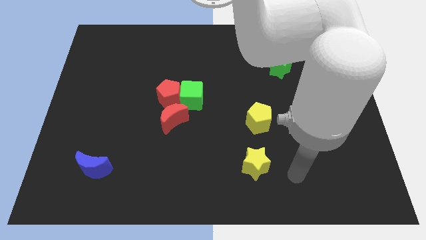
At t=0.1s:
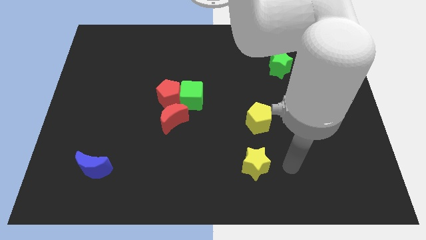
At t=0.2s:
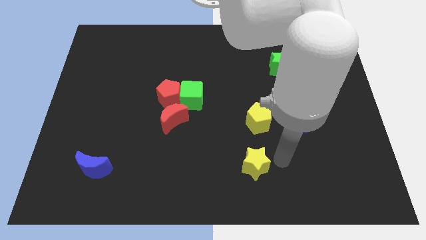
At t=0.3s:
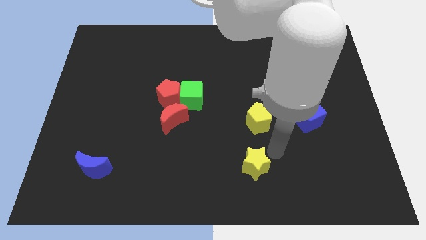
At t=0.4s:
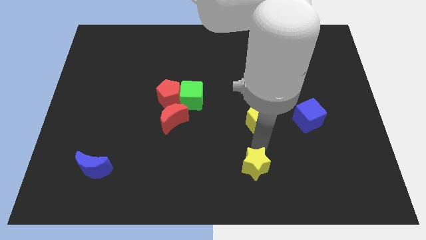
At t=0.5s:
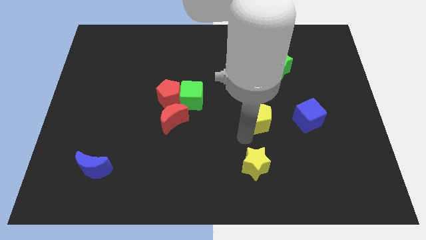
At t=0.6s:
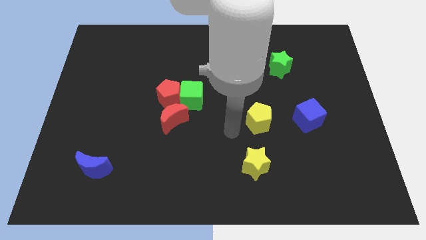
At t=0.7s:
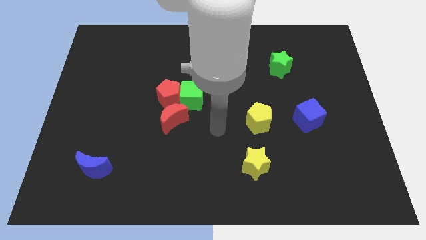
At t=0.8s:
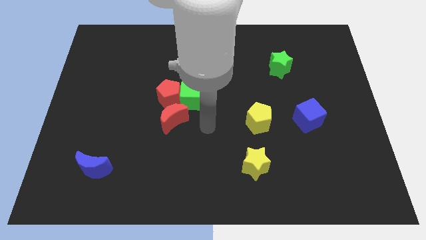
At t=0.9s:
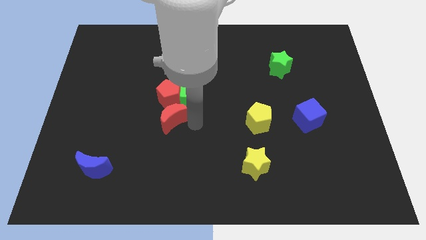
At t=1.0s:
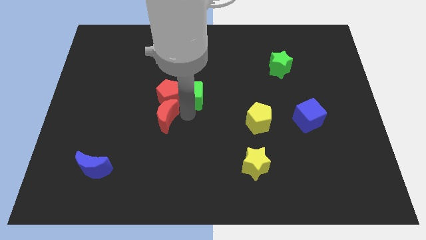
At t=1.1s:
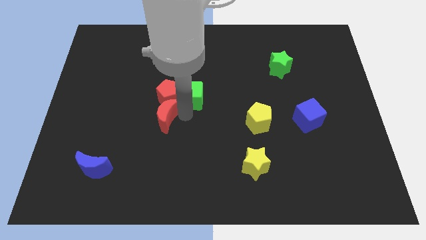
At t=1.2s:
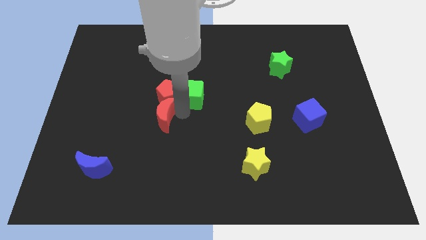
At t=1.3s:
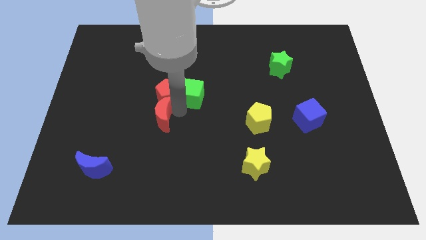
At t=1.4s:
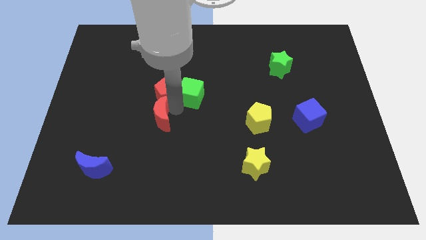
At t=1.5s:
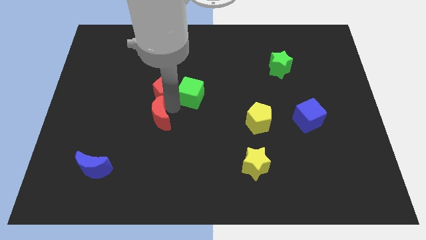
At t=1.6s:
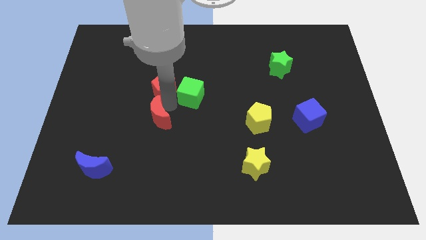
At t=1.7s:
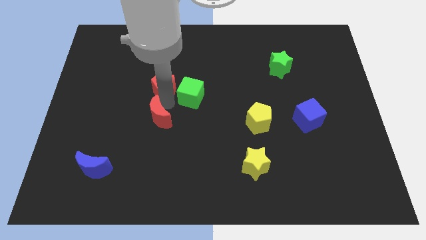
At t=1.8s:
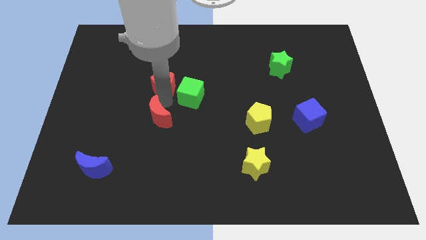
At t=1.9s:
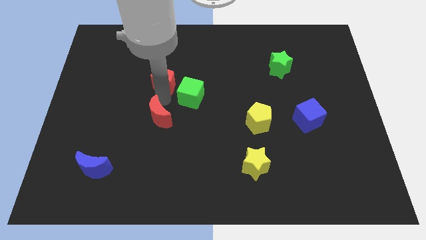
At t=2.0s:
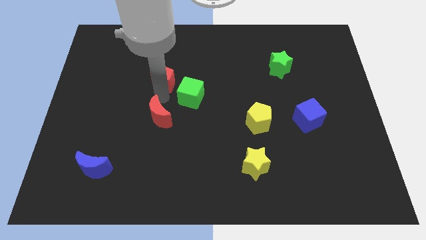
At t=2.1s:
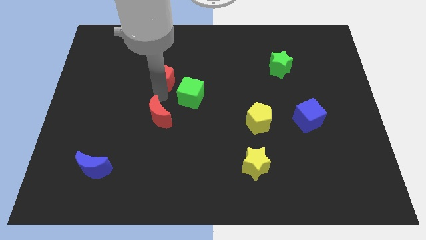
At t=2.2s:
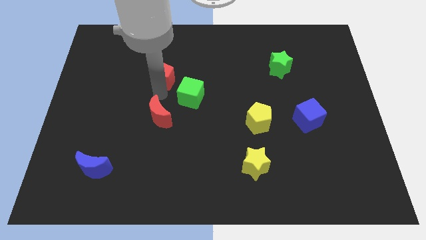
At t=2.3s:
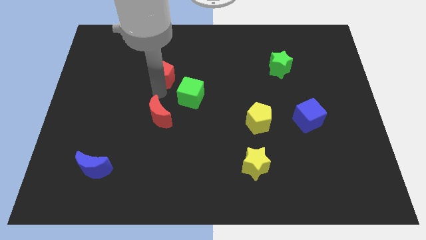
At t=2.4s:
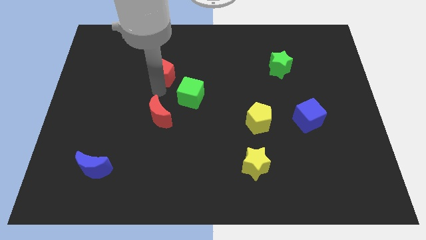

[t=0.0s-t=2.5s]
pull the red pentagon apart from the green cube and red moon

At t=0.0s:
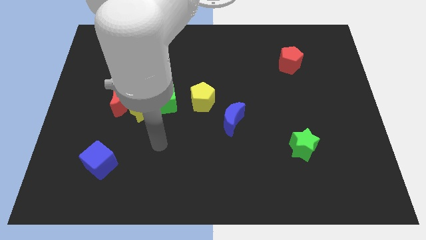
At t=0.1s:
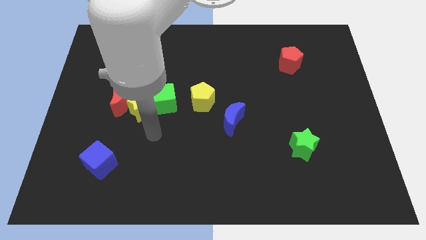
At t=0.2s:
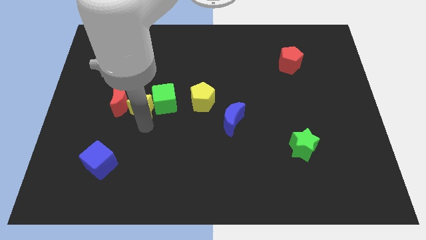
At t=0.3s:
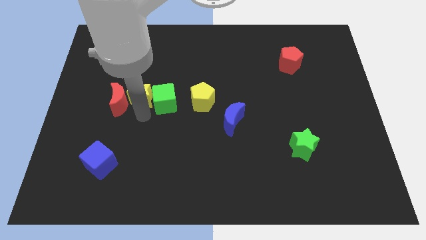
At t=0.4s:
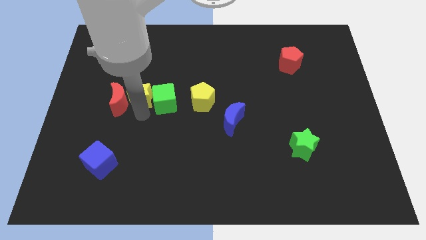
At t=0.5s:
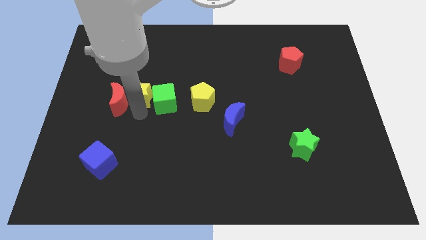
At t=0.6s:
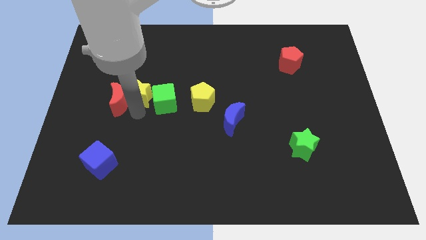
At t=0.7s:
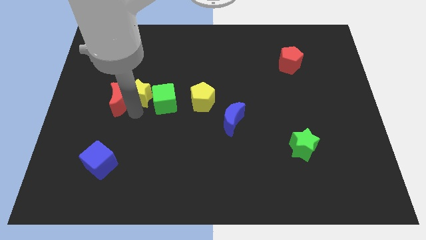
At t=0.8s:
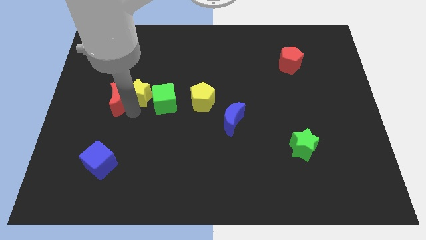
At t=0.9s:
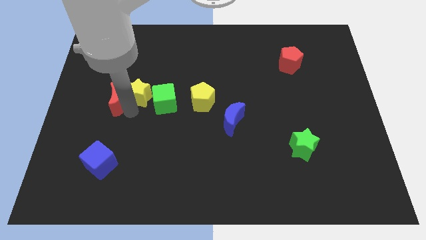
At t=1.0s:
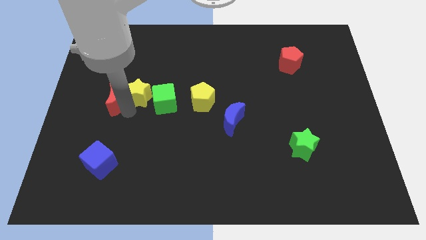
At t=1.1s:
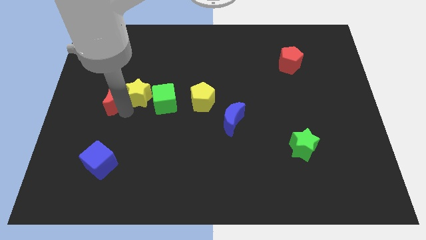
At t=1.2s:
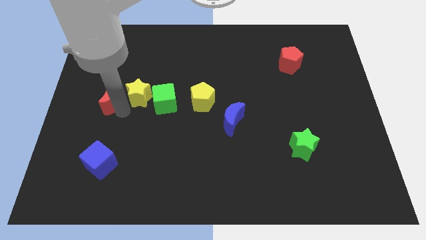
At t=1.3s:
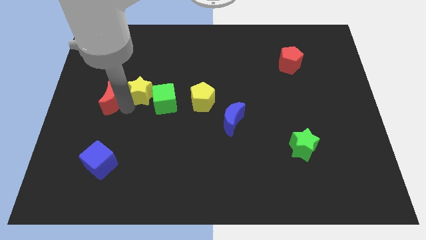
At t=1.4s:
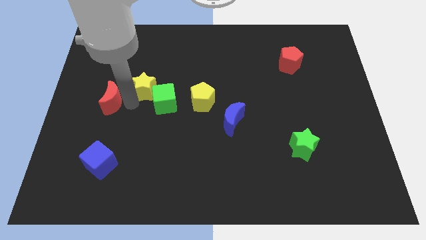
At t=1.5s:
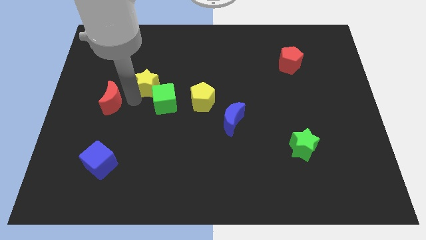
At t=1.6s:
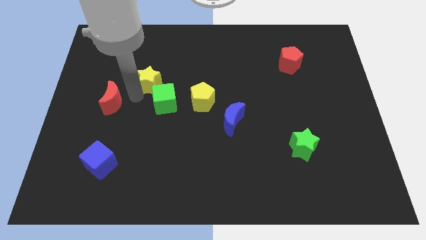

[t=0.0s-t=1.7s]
separate the red moon from the yellow star

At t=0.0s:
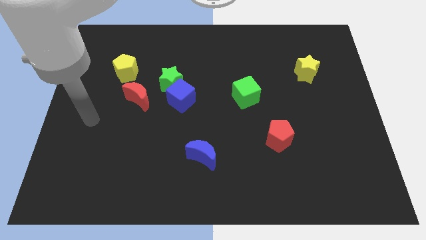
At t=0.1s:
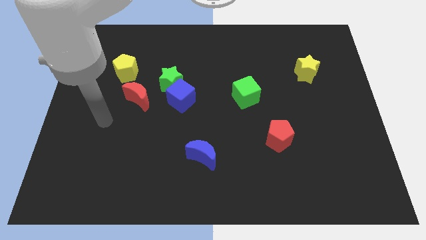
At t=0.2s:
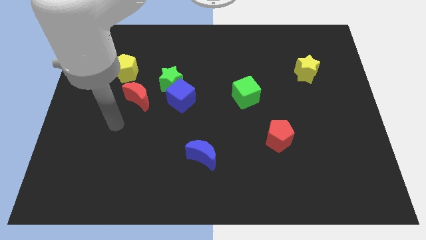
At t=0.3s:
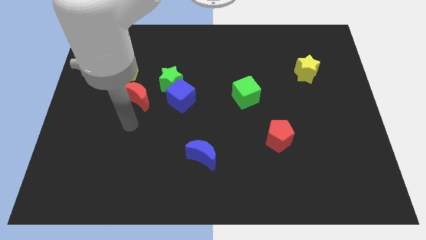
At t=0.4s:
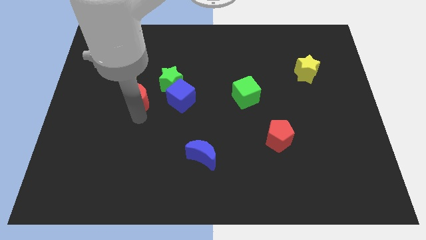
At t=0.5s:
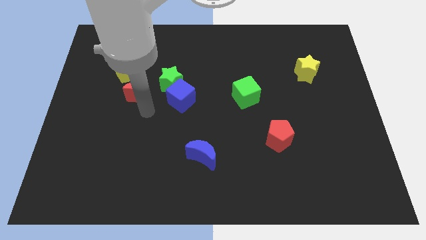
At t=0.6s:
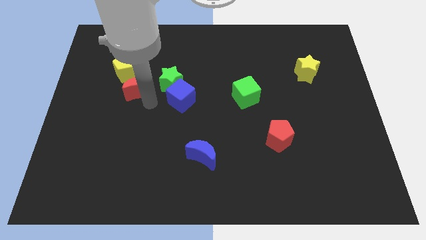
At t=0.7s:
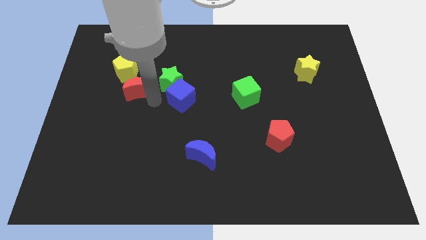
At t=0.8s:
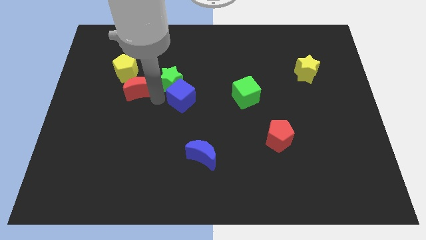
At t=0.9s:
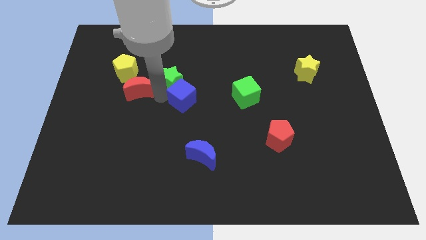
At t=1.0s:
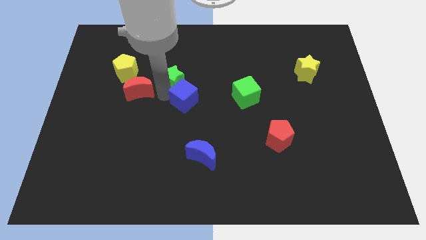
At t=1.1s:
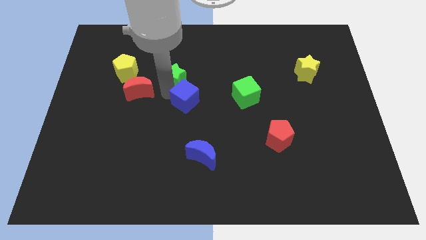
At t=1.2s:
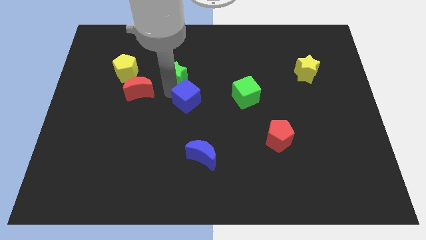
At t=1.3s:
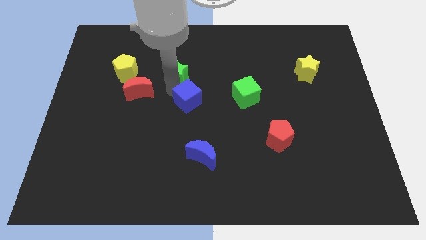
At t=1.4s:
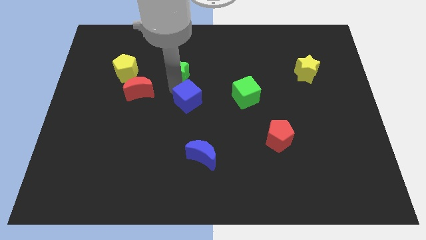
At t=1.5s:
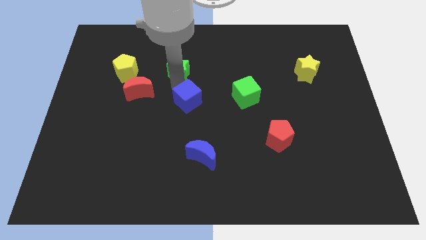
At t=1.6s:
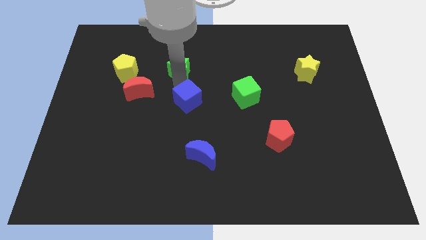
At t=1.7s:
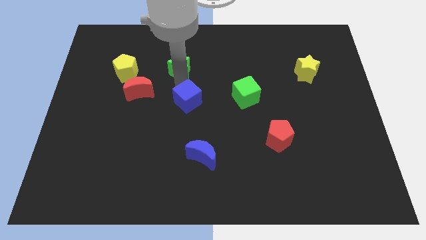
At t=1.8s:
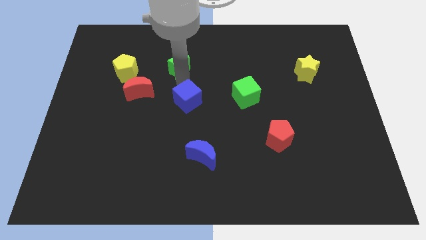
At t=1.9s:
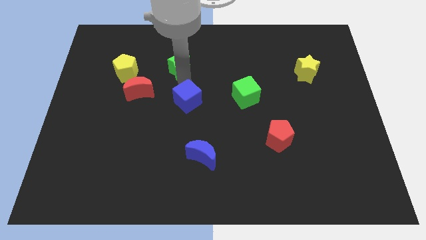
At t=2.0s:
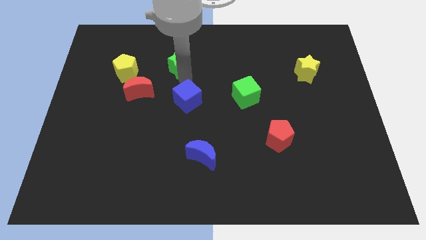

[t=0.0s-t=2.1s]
move the green star away from the blue cube and red moon

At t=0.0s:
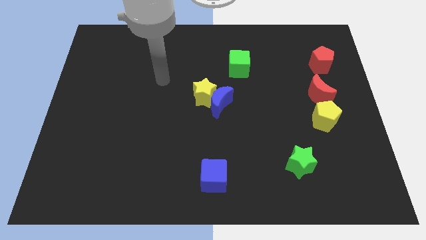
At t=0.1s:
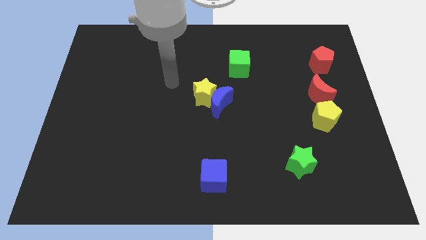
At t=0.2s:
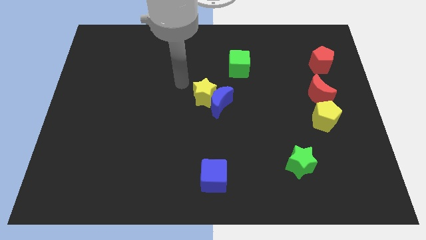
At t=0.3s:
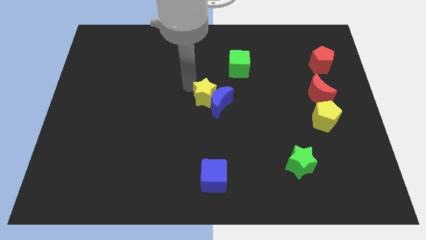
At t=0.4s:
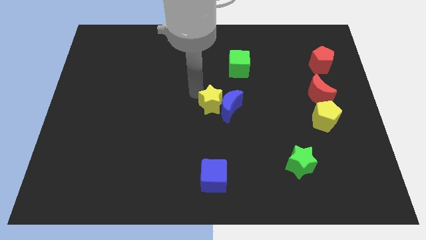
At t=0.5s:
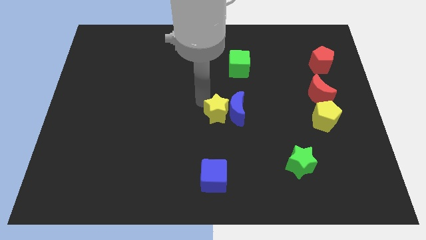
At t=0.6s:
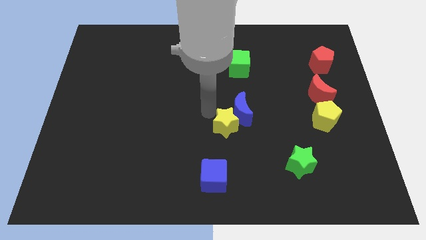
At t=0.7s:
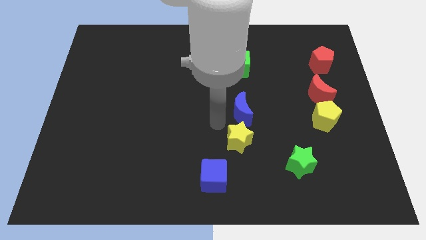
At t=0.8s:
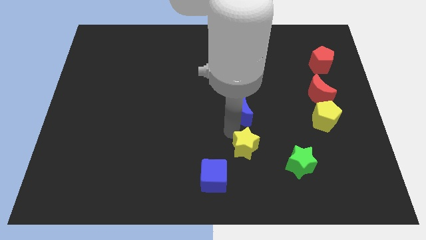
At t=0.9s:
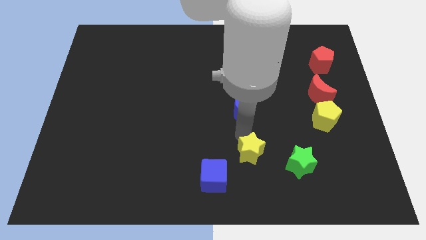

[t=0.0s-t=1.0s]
pull the blue moon apart from the yellow star

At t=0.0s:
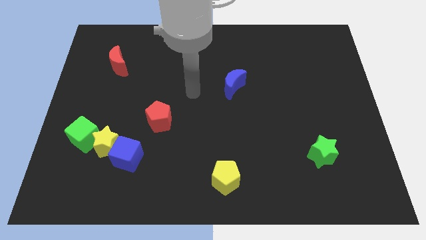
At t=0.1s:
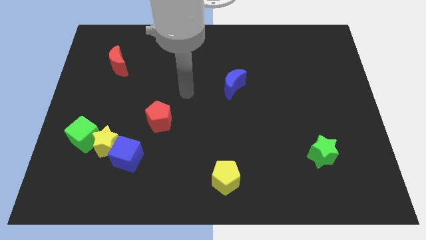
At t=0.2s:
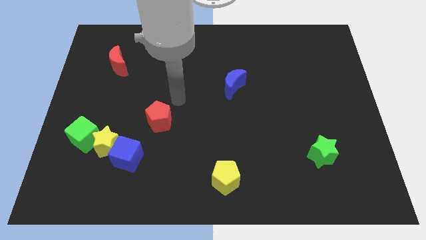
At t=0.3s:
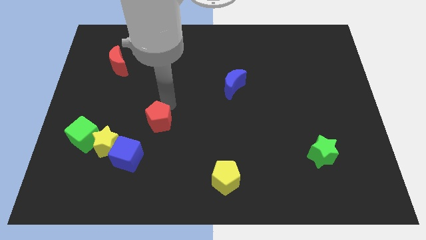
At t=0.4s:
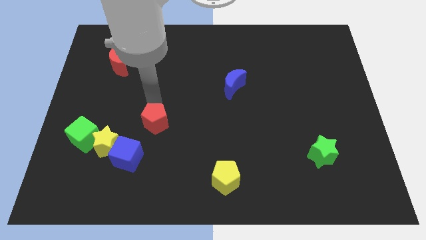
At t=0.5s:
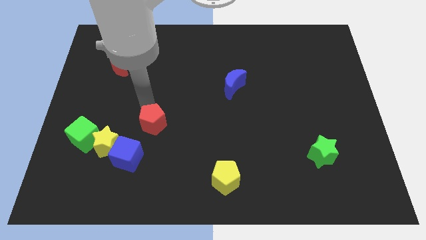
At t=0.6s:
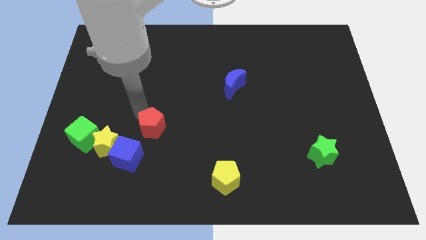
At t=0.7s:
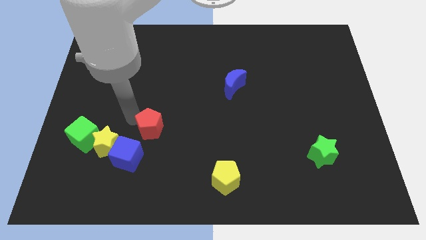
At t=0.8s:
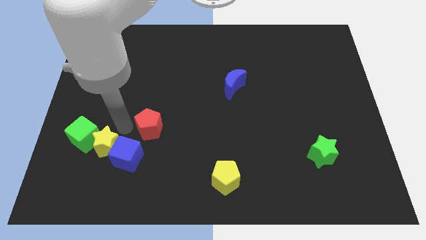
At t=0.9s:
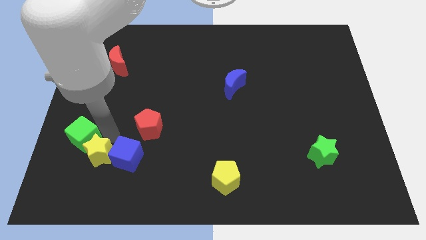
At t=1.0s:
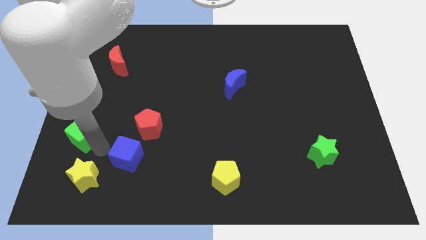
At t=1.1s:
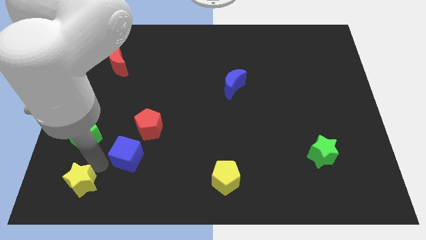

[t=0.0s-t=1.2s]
move the blue cube away from the yellow star

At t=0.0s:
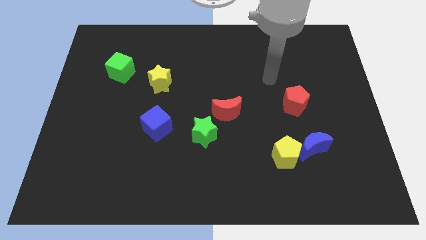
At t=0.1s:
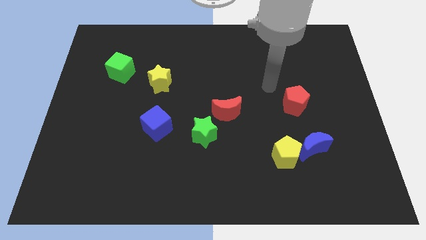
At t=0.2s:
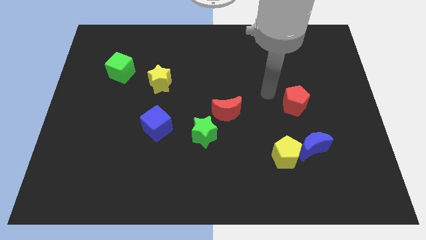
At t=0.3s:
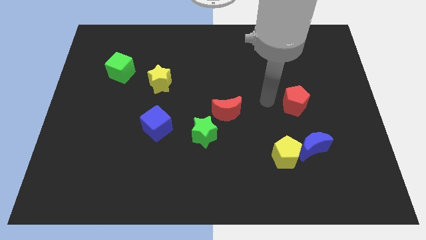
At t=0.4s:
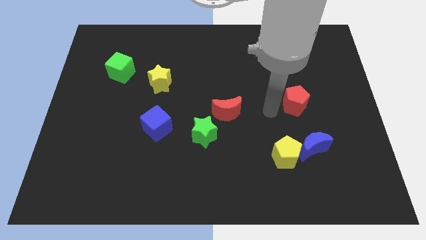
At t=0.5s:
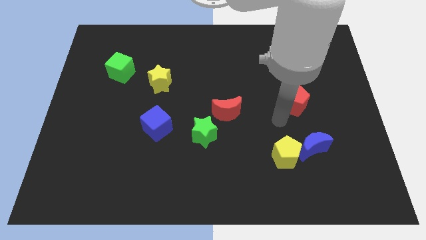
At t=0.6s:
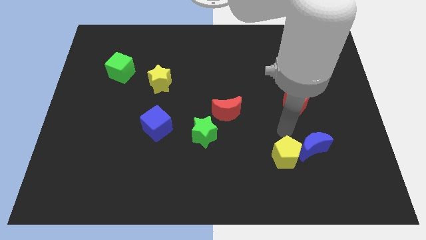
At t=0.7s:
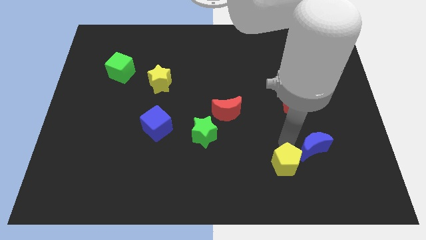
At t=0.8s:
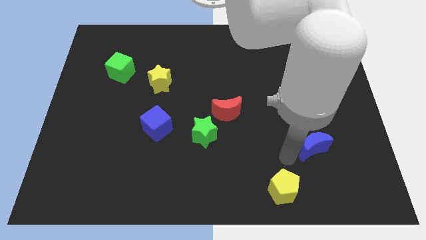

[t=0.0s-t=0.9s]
move the blue moon away from the yellow pentagon

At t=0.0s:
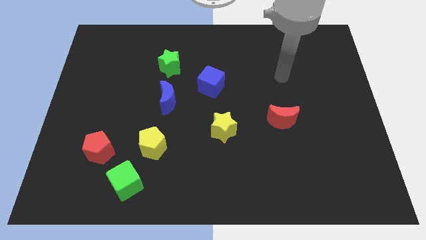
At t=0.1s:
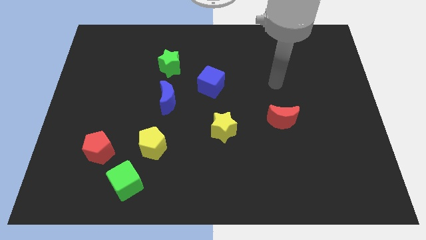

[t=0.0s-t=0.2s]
separate the yellow pentagon from the green cube
